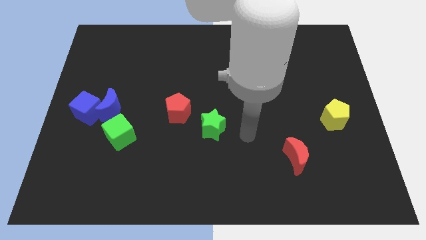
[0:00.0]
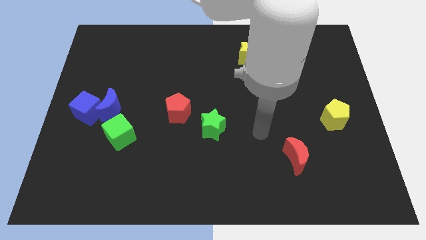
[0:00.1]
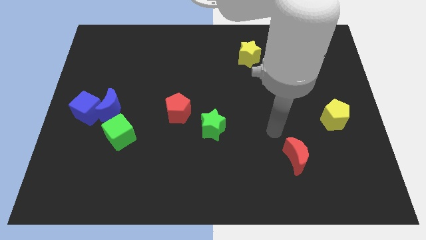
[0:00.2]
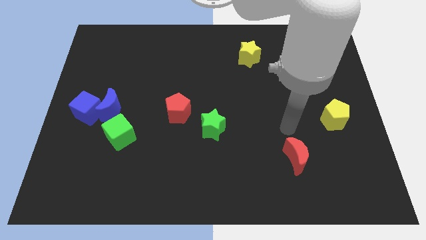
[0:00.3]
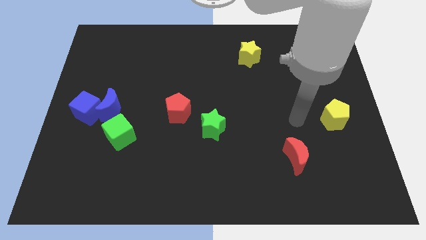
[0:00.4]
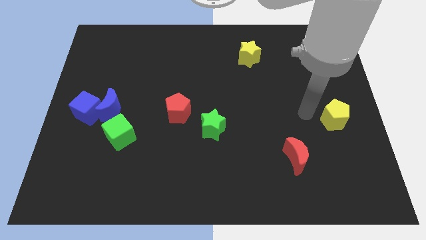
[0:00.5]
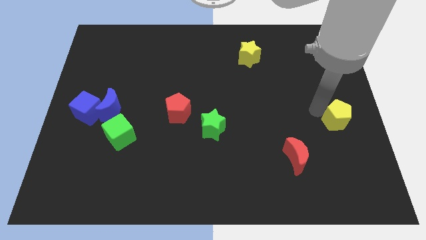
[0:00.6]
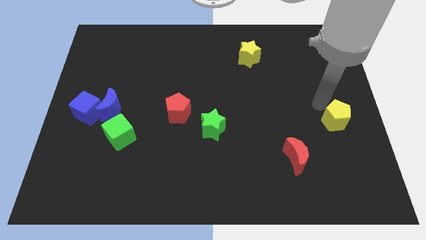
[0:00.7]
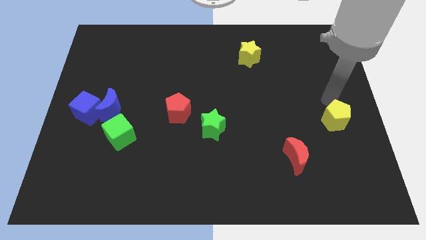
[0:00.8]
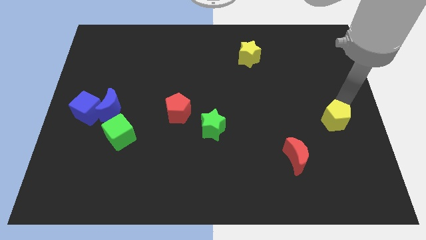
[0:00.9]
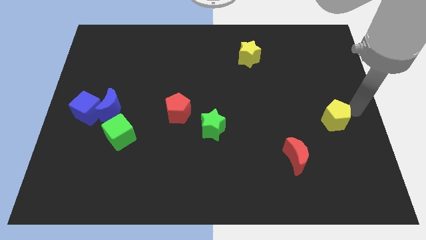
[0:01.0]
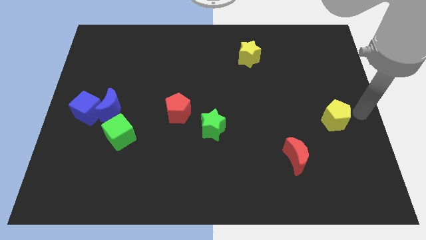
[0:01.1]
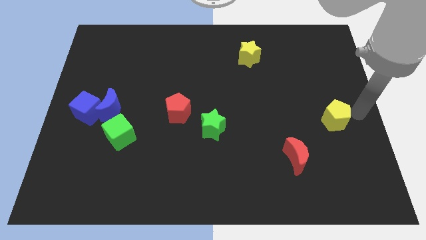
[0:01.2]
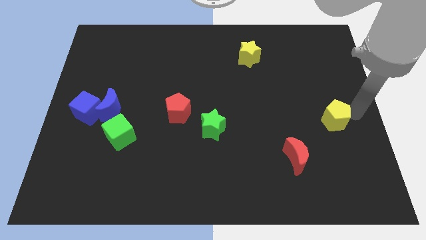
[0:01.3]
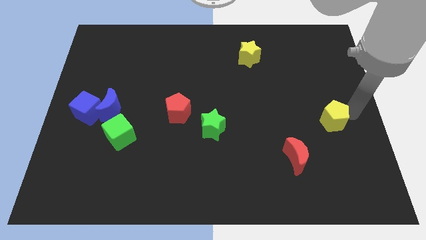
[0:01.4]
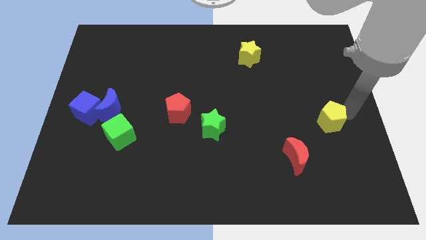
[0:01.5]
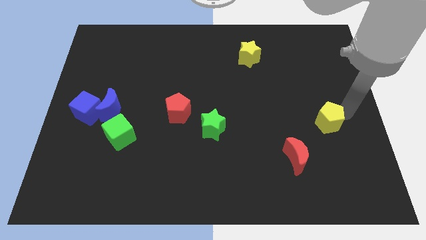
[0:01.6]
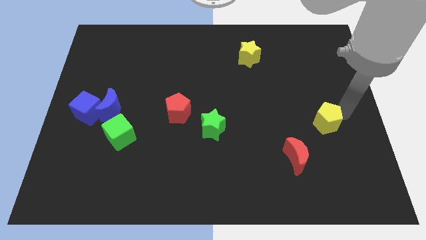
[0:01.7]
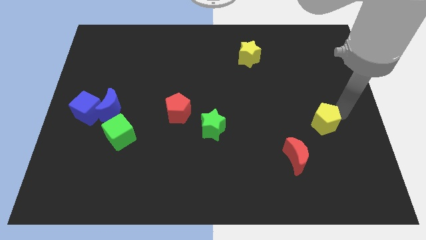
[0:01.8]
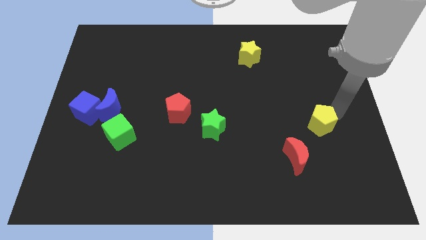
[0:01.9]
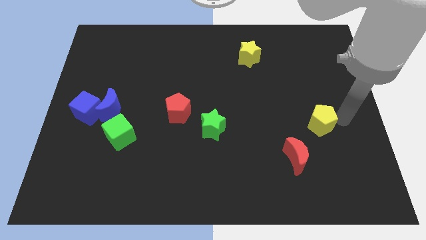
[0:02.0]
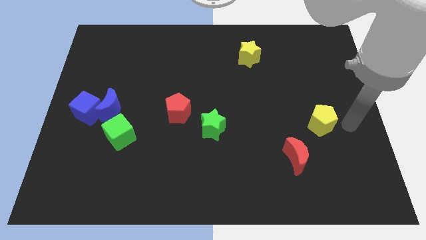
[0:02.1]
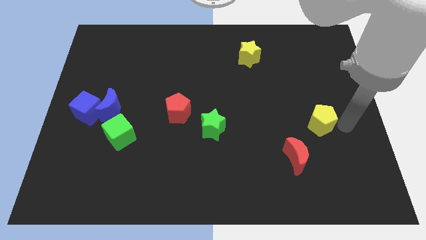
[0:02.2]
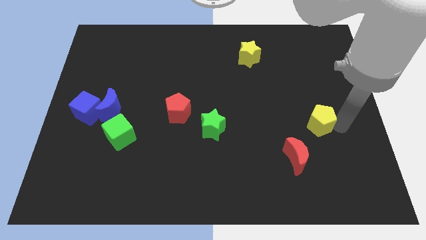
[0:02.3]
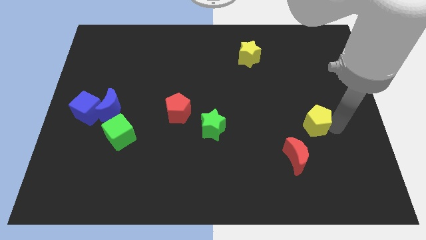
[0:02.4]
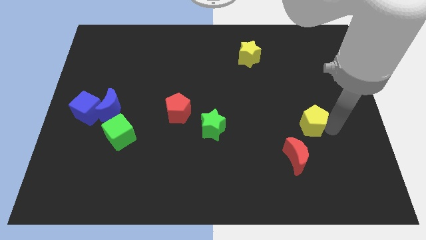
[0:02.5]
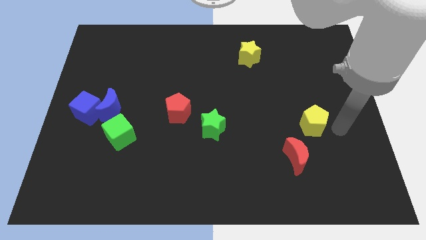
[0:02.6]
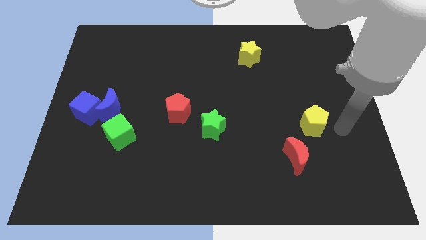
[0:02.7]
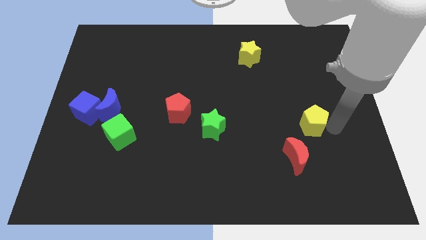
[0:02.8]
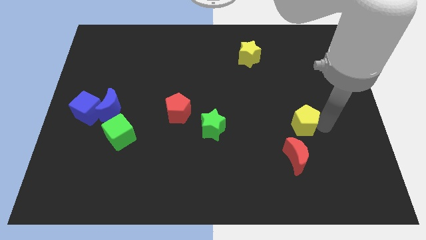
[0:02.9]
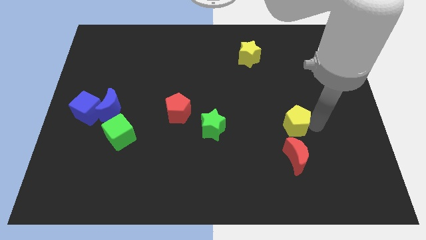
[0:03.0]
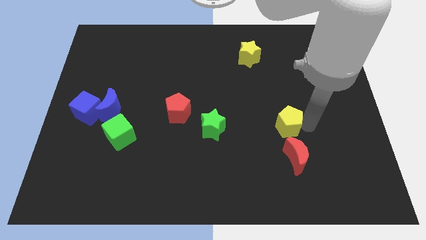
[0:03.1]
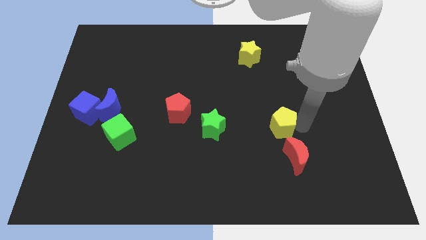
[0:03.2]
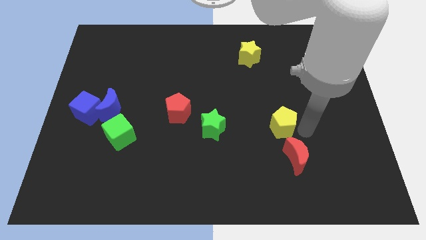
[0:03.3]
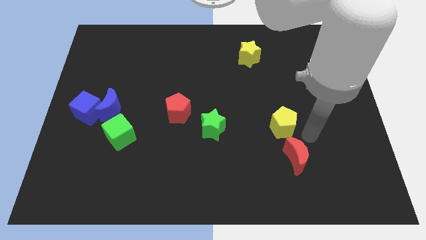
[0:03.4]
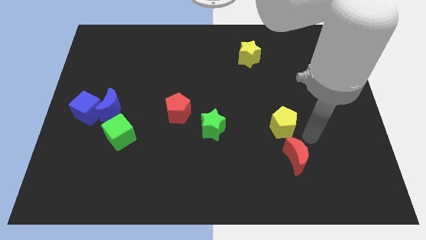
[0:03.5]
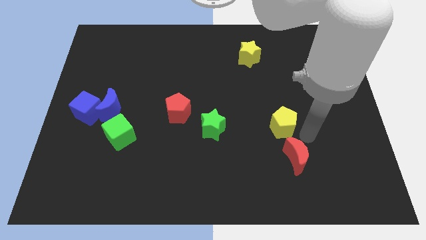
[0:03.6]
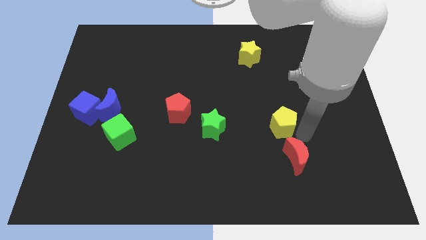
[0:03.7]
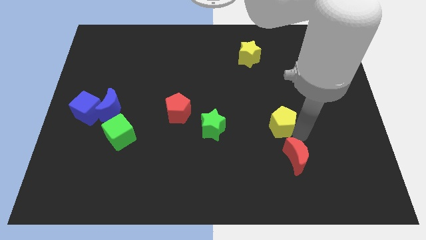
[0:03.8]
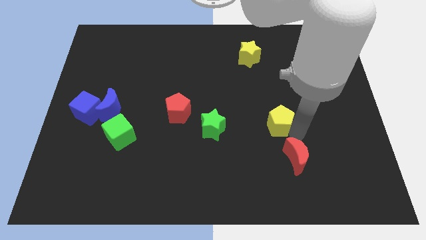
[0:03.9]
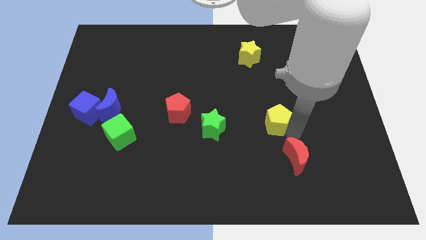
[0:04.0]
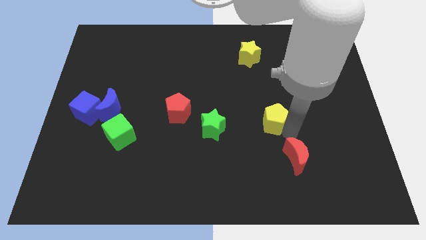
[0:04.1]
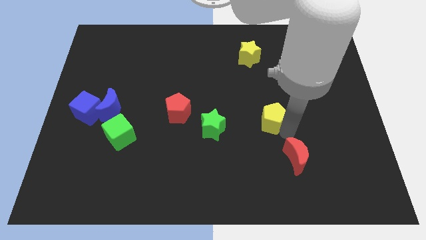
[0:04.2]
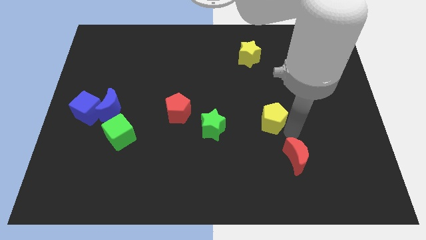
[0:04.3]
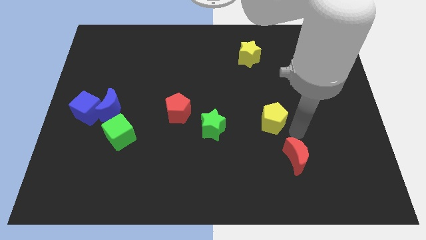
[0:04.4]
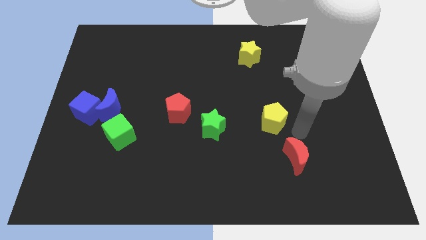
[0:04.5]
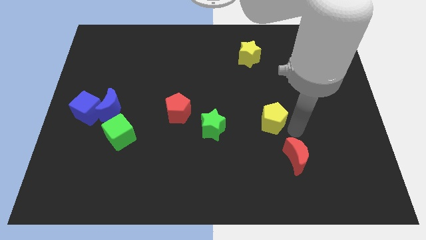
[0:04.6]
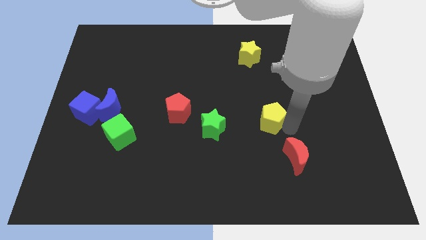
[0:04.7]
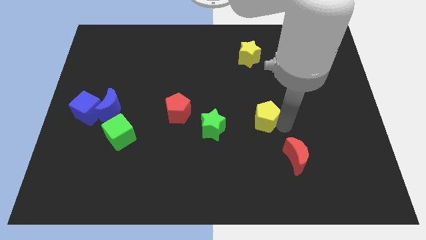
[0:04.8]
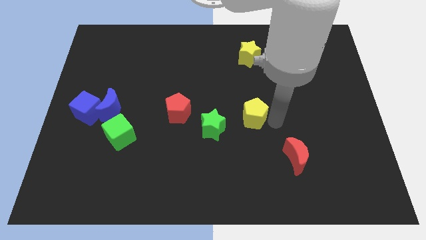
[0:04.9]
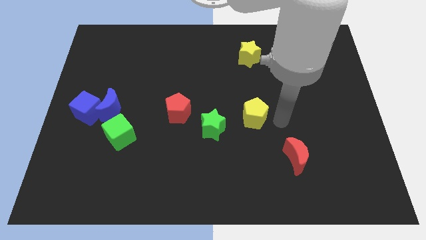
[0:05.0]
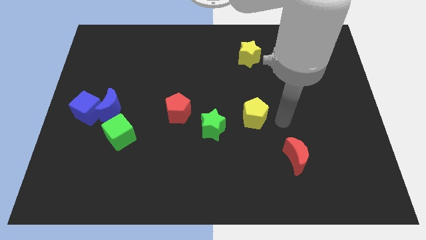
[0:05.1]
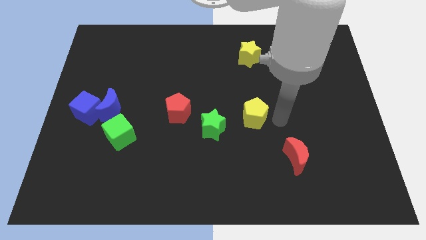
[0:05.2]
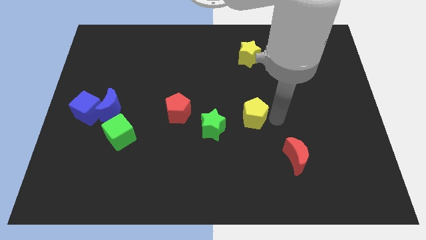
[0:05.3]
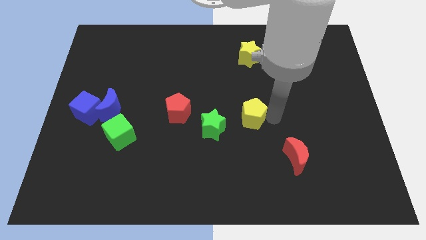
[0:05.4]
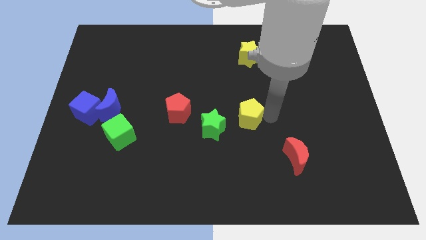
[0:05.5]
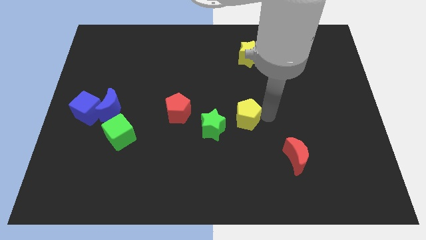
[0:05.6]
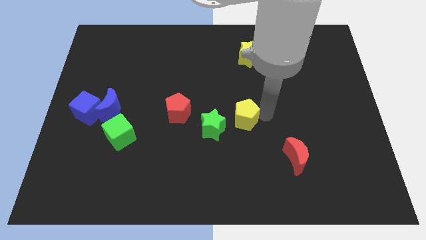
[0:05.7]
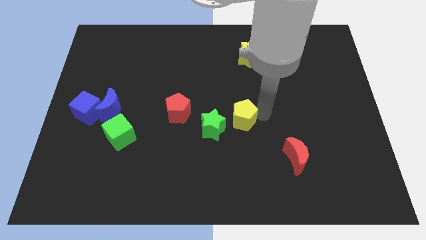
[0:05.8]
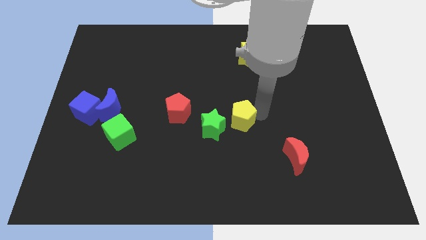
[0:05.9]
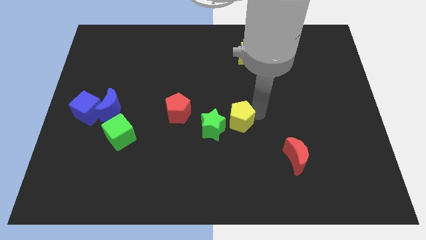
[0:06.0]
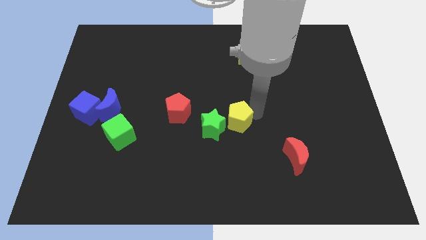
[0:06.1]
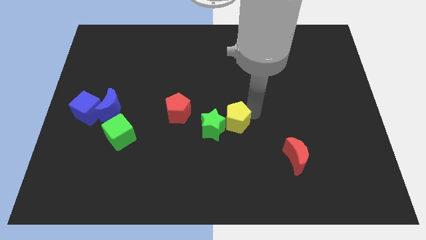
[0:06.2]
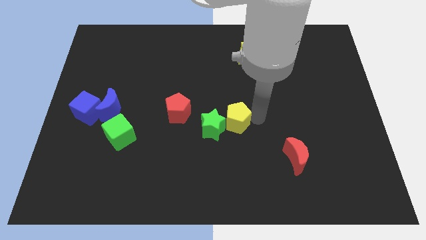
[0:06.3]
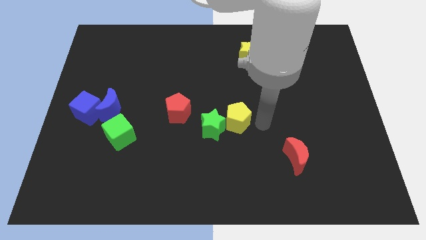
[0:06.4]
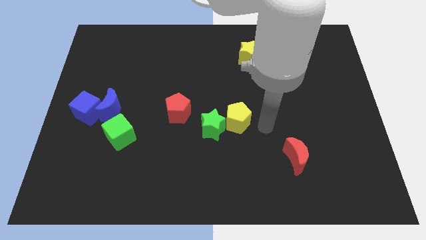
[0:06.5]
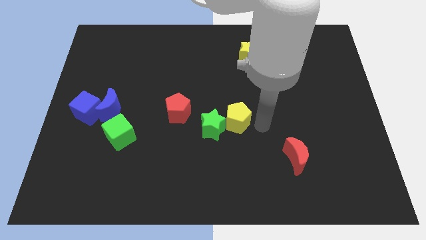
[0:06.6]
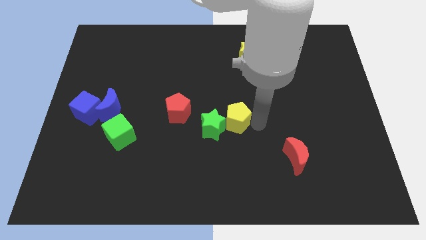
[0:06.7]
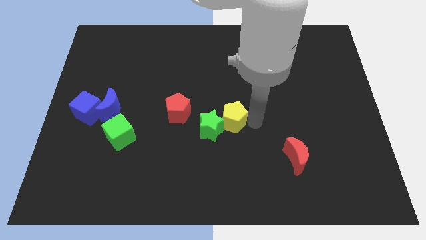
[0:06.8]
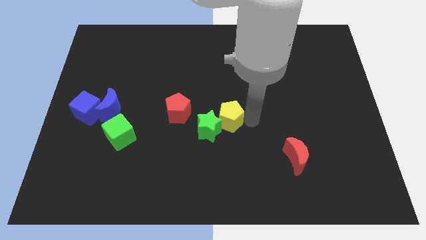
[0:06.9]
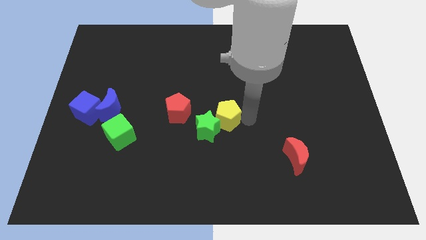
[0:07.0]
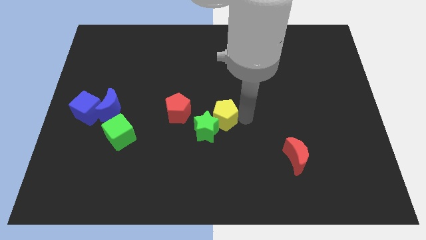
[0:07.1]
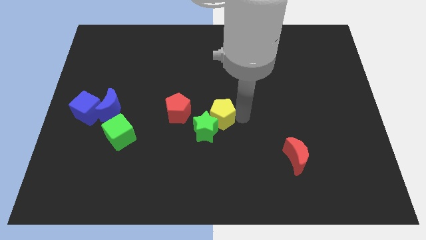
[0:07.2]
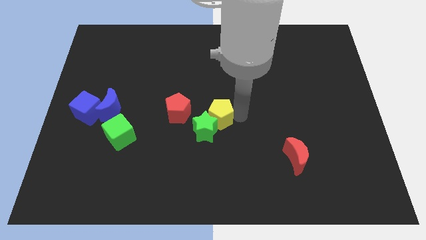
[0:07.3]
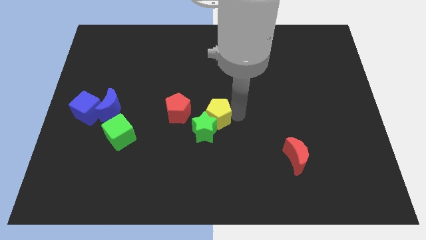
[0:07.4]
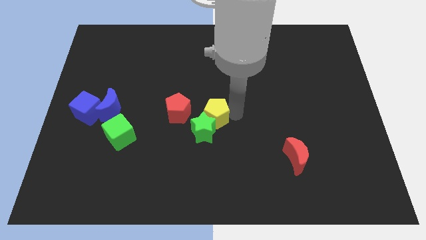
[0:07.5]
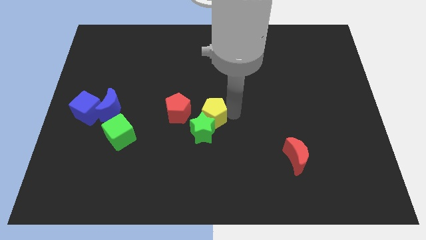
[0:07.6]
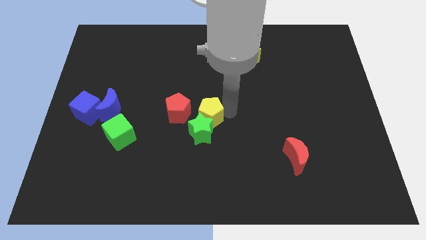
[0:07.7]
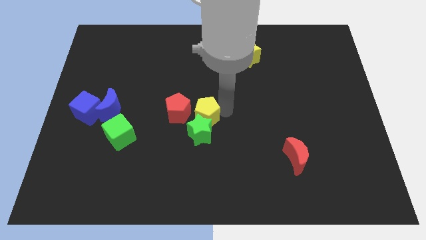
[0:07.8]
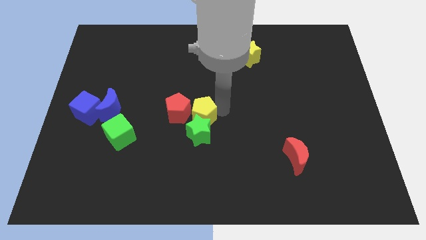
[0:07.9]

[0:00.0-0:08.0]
put the yellow pentagon close to the red pentagon
